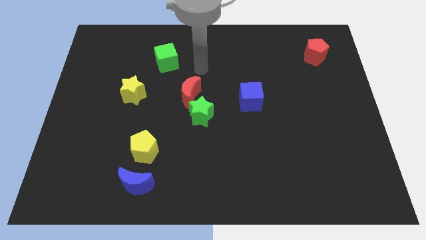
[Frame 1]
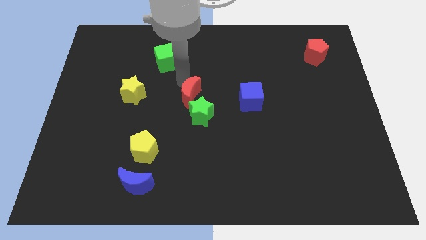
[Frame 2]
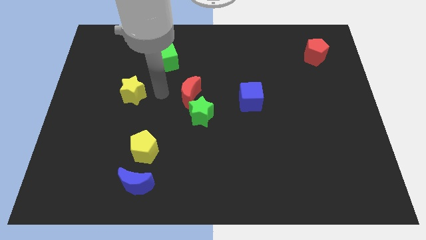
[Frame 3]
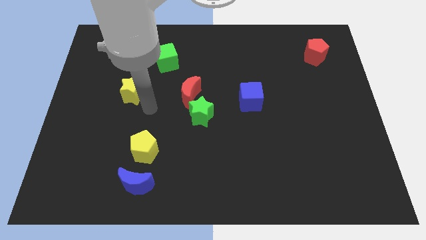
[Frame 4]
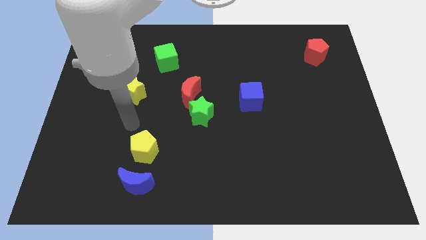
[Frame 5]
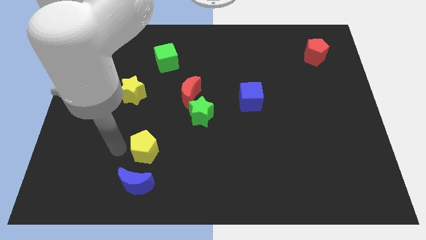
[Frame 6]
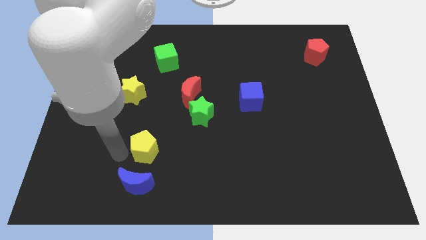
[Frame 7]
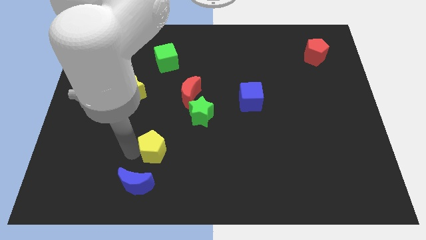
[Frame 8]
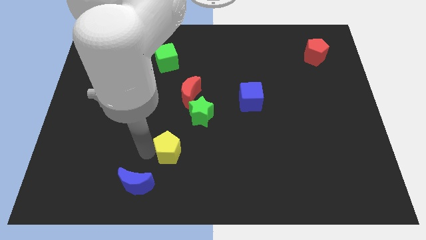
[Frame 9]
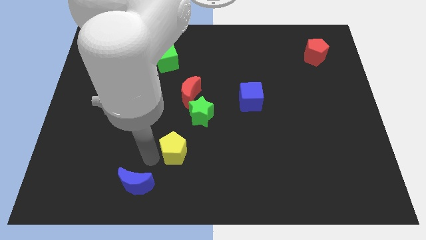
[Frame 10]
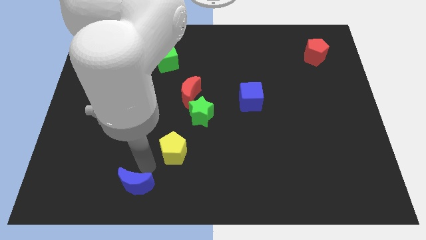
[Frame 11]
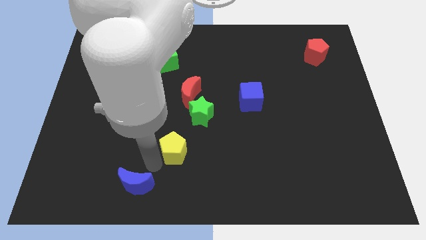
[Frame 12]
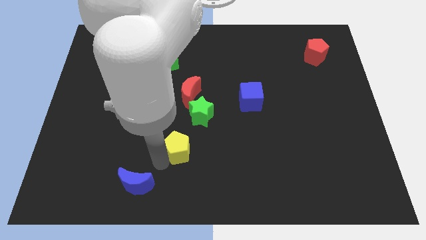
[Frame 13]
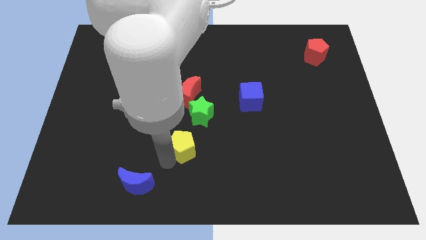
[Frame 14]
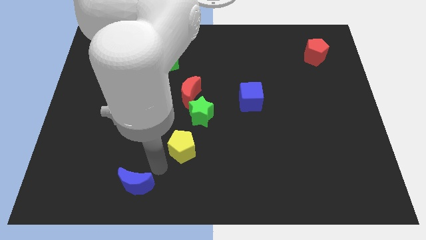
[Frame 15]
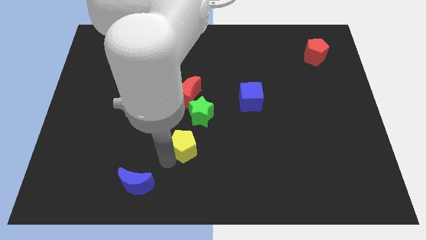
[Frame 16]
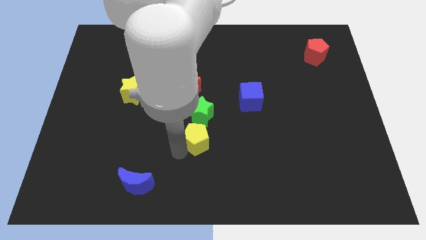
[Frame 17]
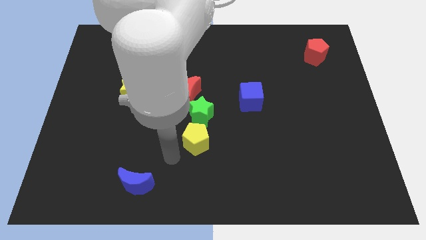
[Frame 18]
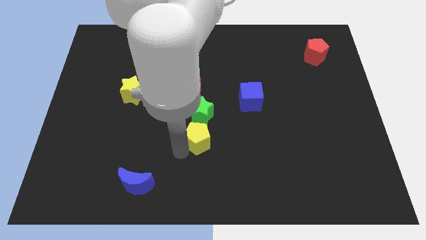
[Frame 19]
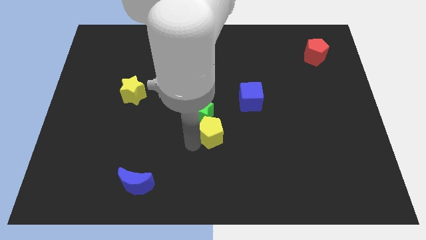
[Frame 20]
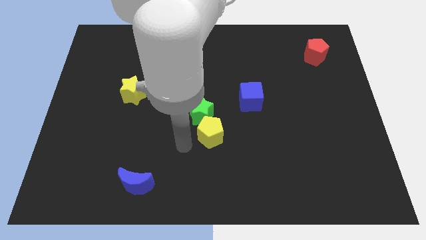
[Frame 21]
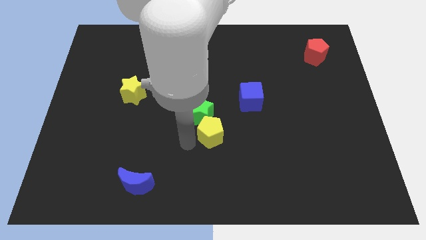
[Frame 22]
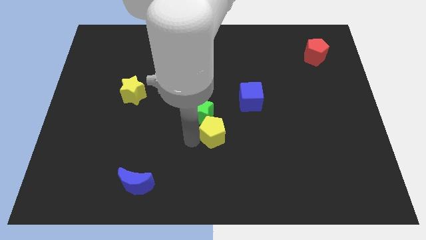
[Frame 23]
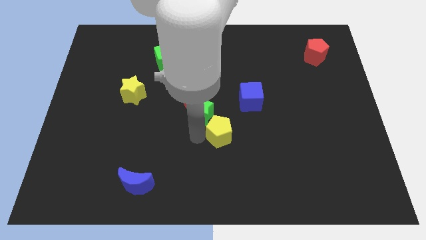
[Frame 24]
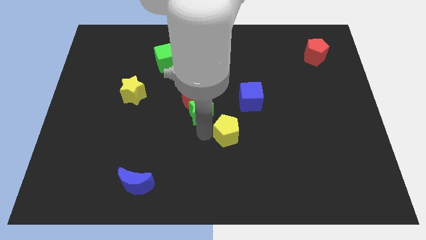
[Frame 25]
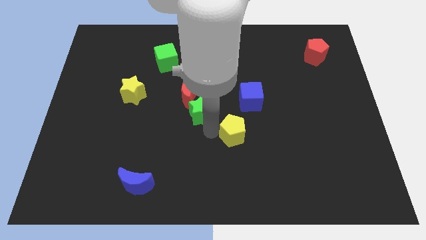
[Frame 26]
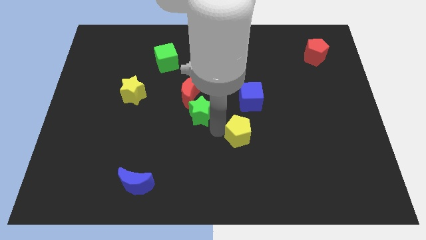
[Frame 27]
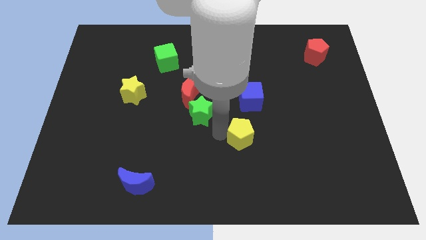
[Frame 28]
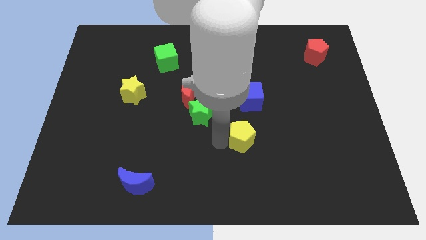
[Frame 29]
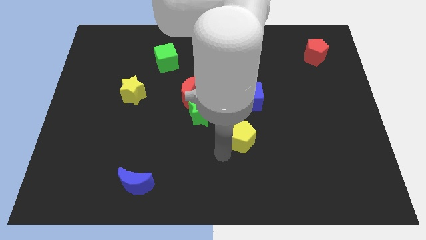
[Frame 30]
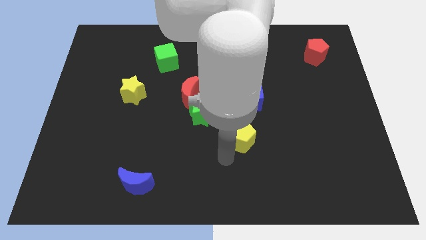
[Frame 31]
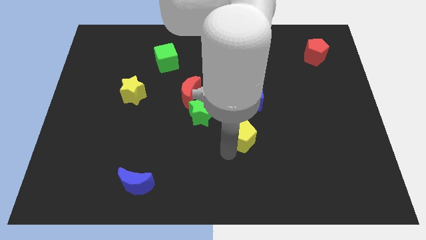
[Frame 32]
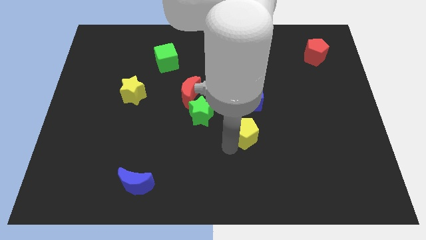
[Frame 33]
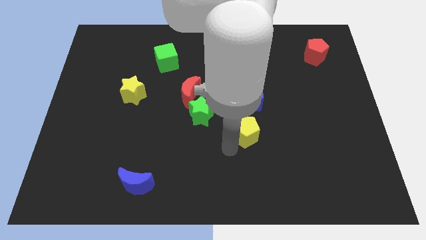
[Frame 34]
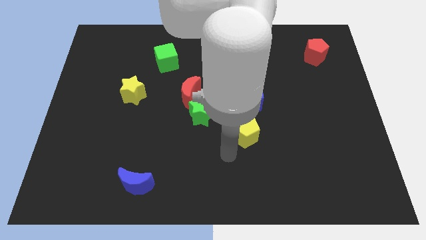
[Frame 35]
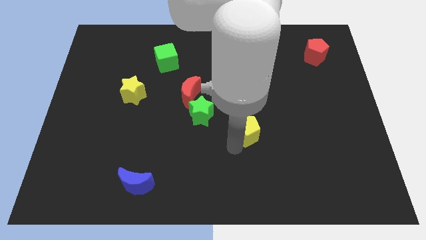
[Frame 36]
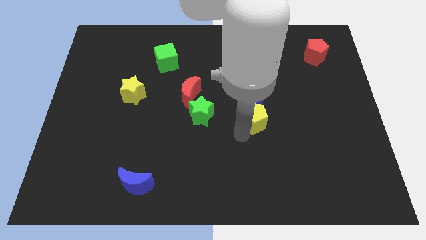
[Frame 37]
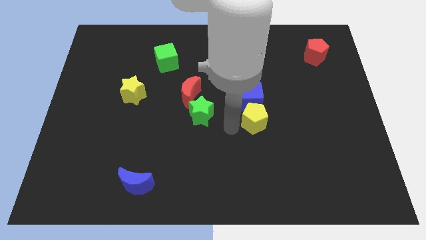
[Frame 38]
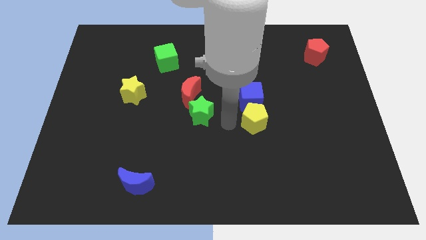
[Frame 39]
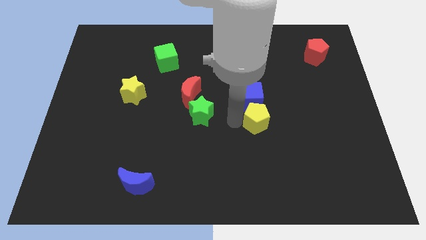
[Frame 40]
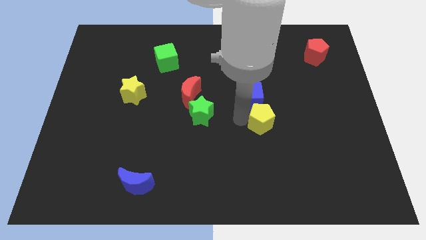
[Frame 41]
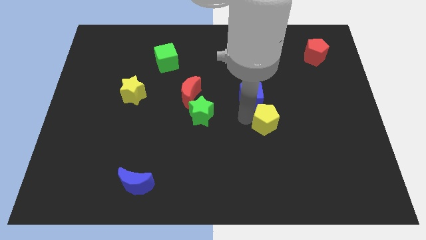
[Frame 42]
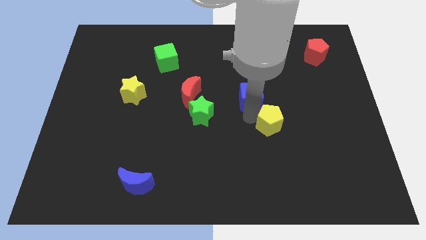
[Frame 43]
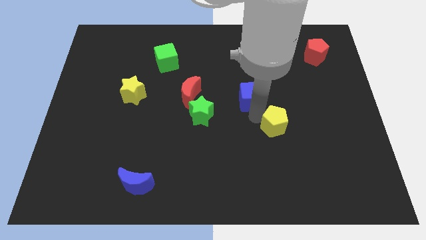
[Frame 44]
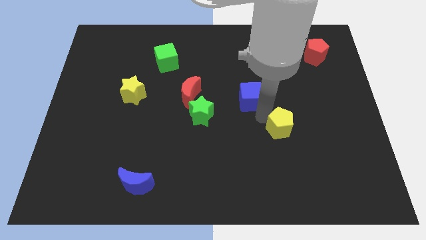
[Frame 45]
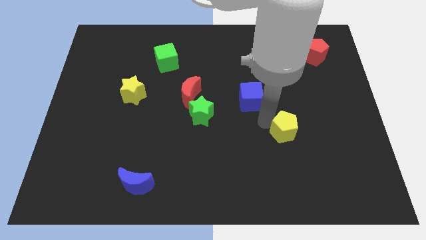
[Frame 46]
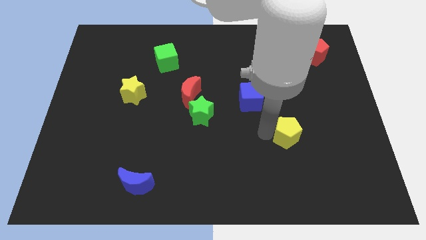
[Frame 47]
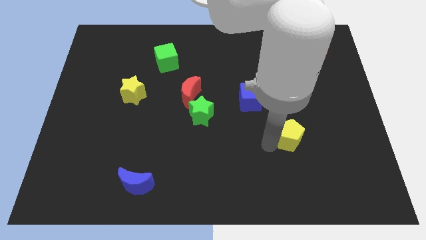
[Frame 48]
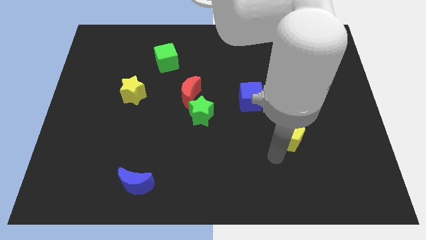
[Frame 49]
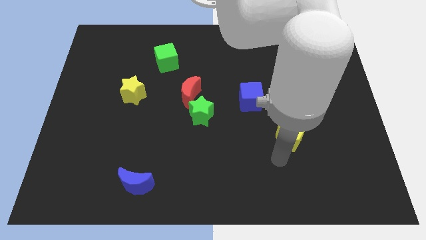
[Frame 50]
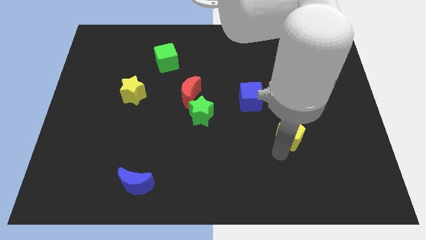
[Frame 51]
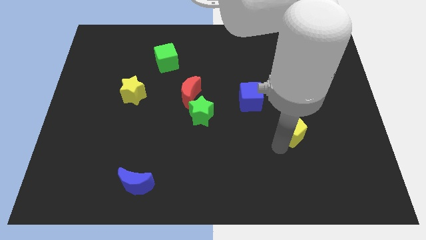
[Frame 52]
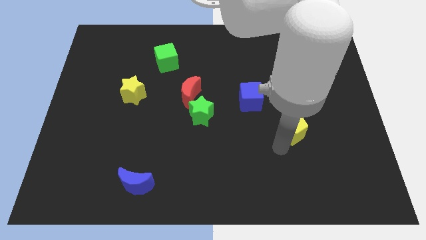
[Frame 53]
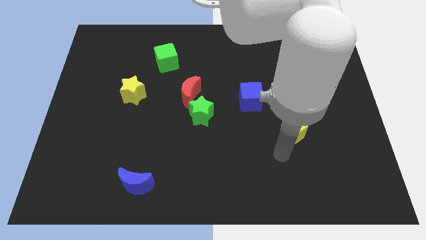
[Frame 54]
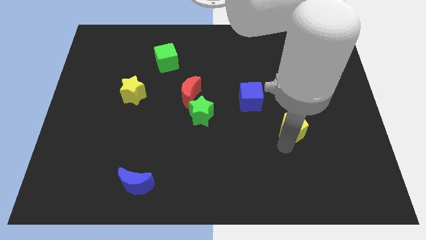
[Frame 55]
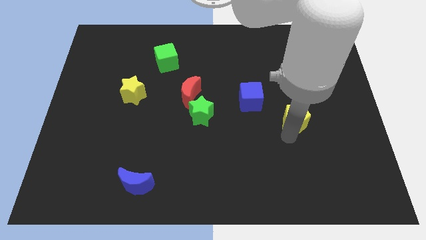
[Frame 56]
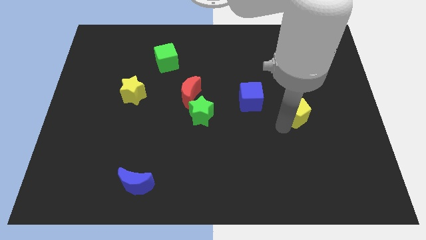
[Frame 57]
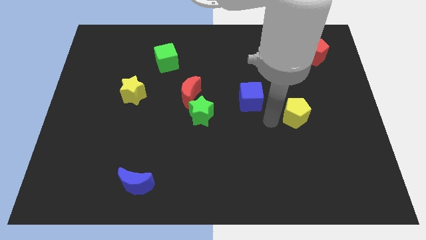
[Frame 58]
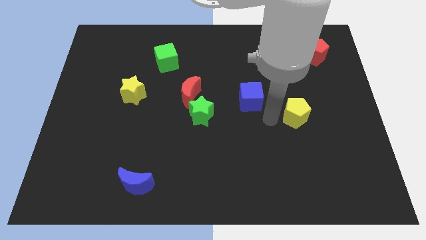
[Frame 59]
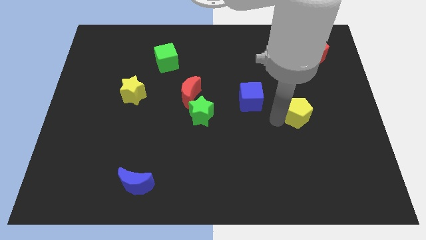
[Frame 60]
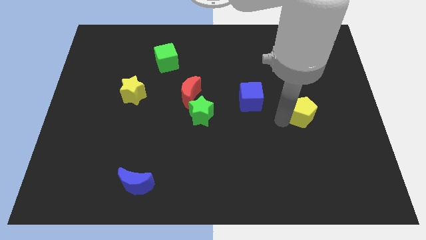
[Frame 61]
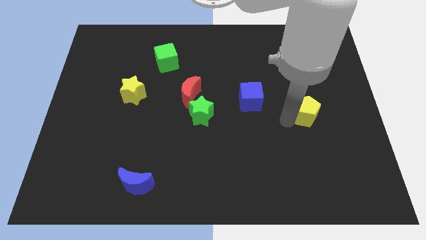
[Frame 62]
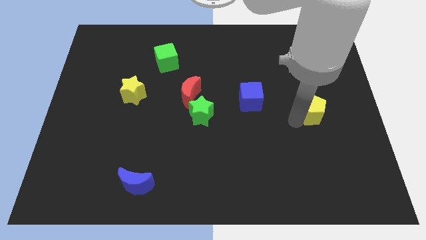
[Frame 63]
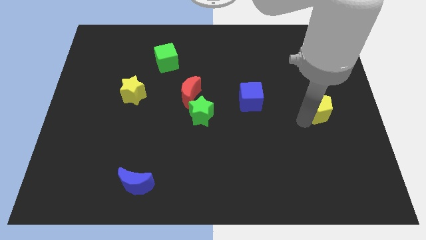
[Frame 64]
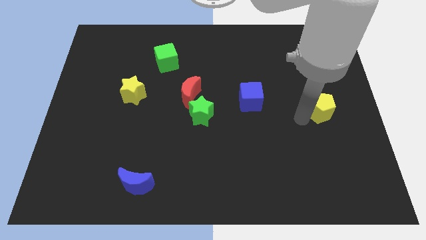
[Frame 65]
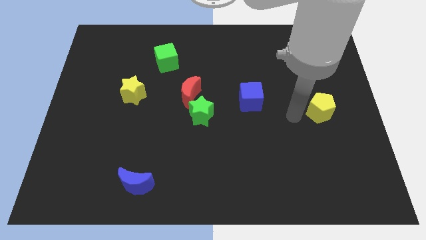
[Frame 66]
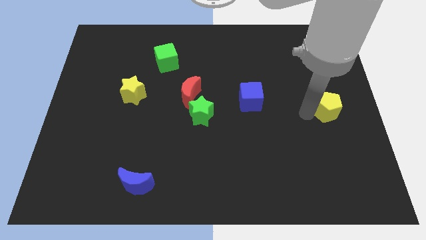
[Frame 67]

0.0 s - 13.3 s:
put the yellow pentagon to the right side of the board
